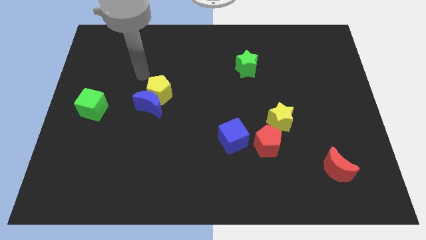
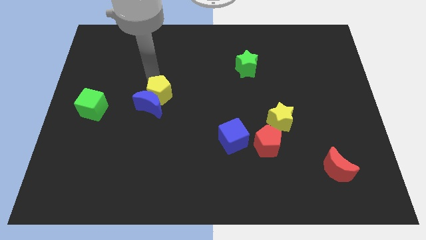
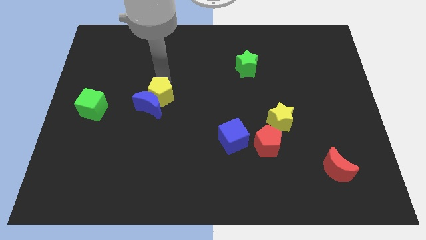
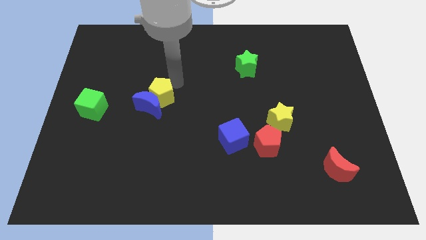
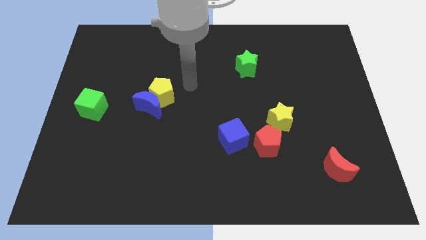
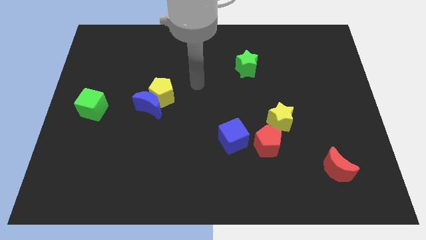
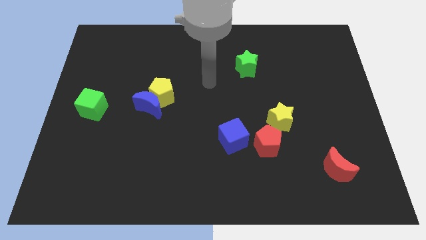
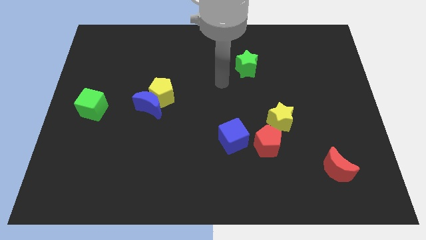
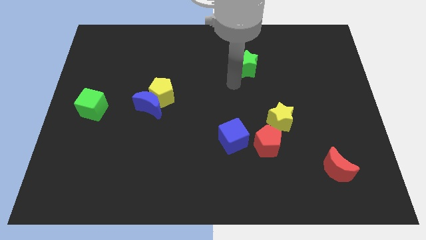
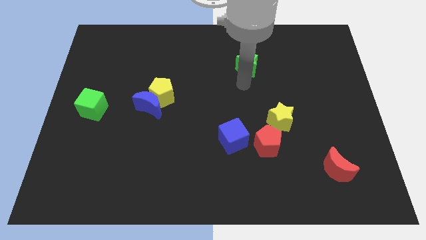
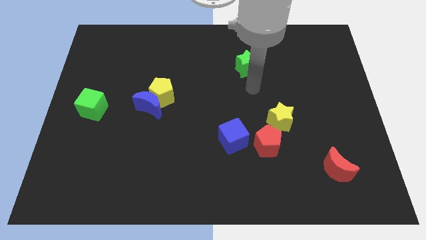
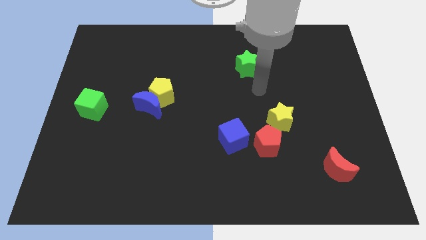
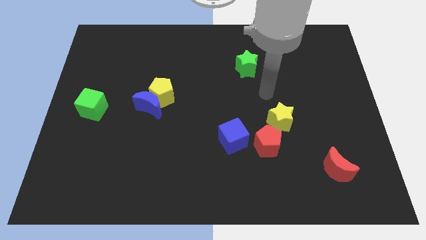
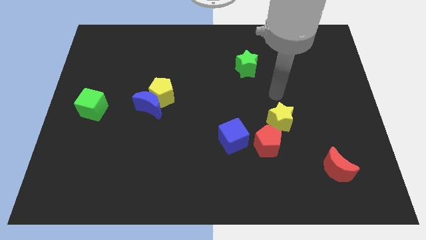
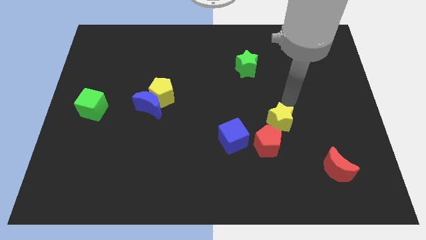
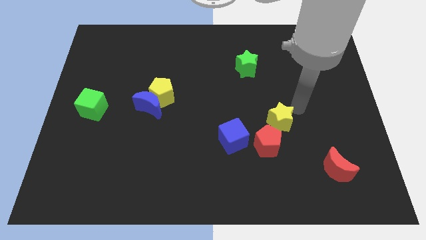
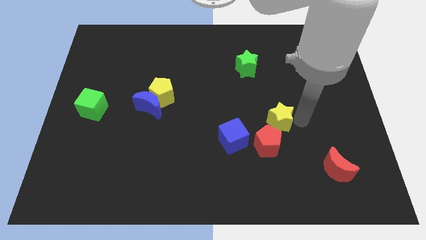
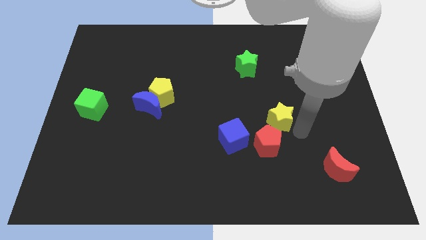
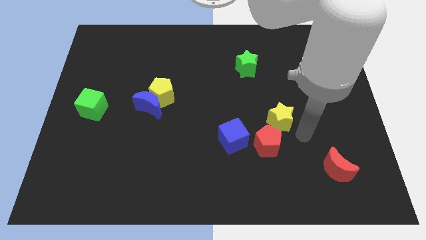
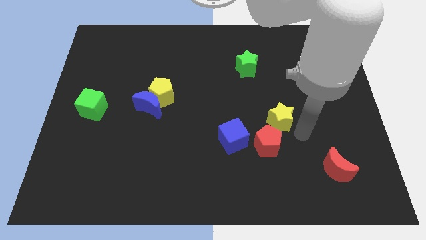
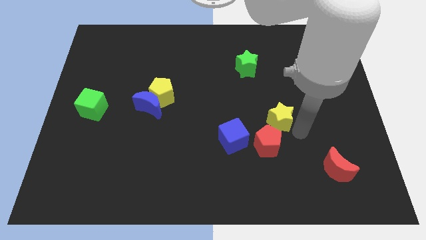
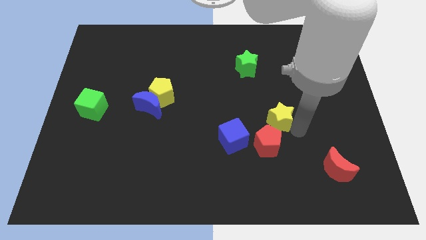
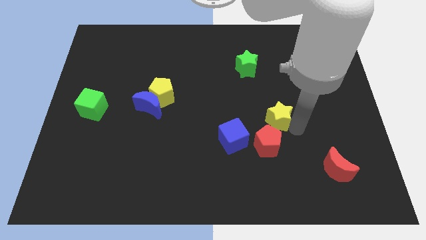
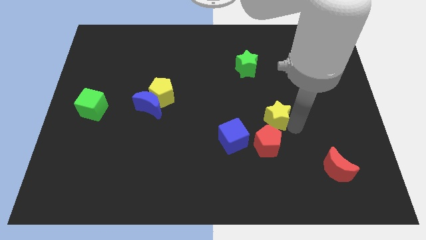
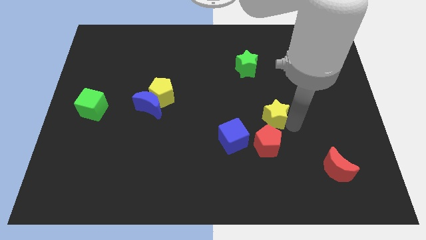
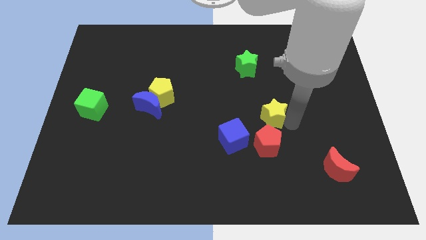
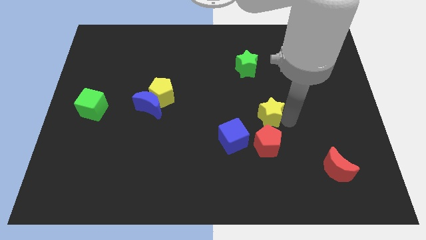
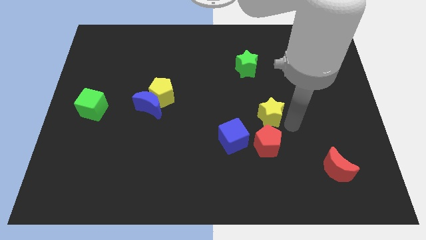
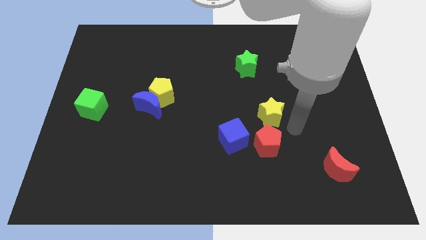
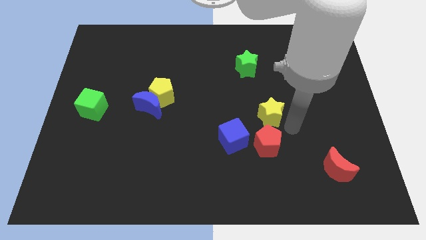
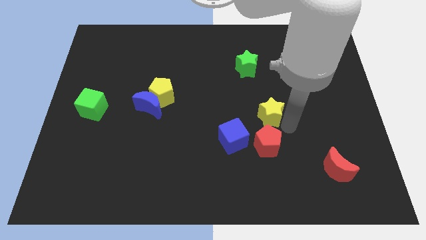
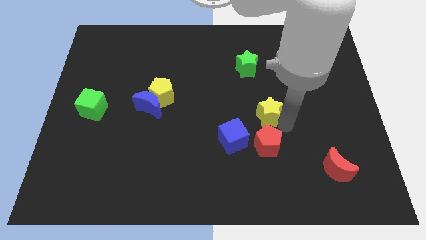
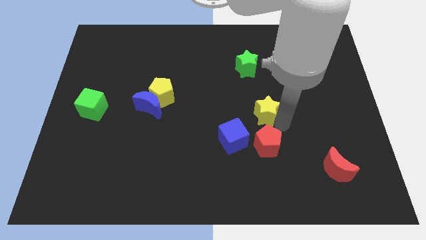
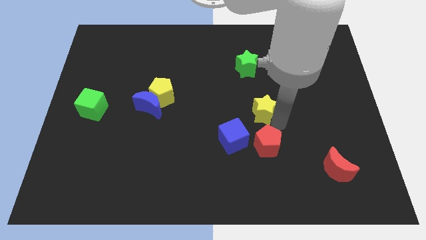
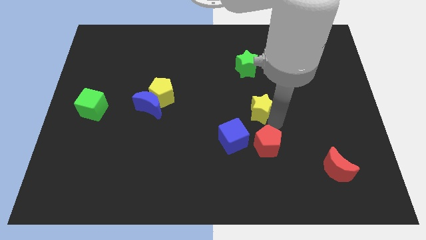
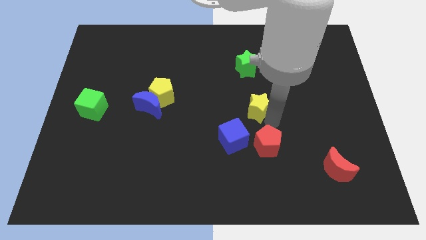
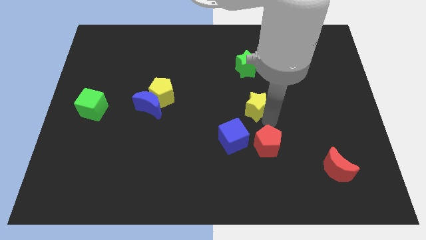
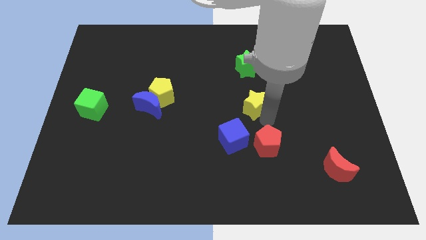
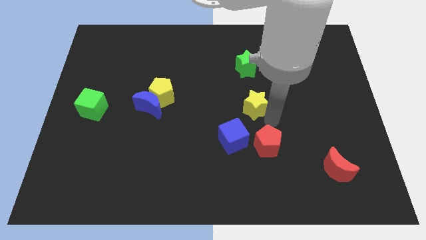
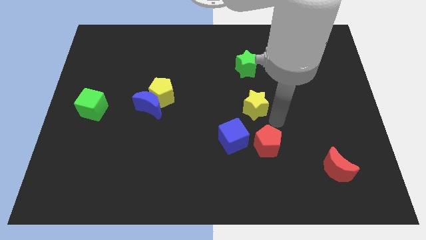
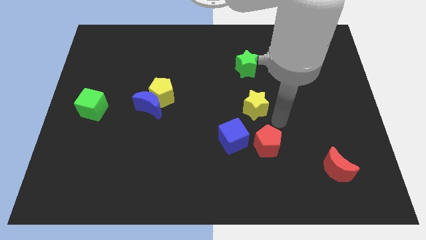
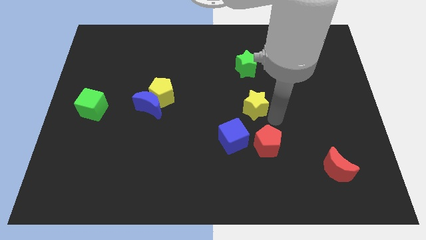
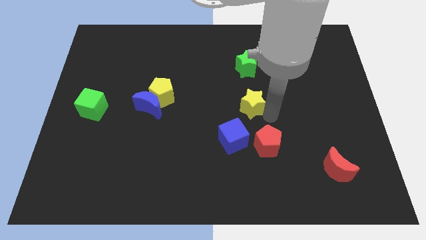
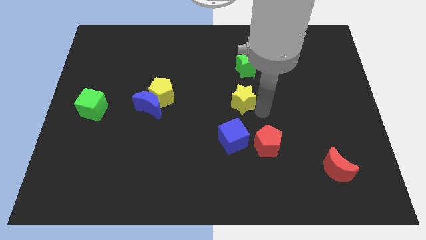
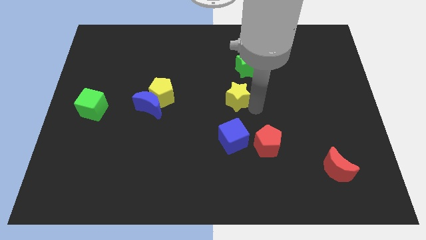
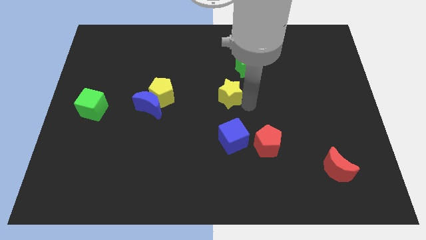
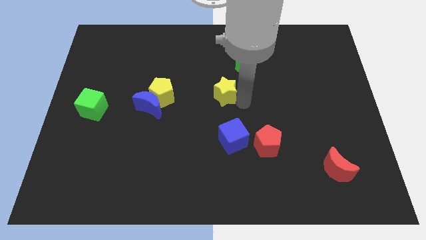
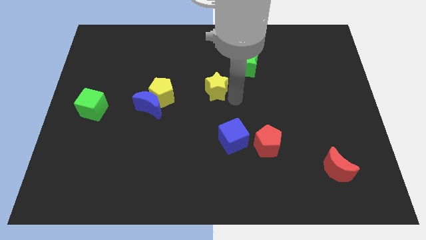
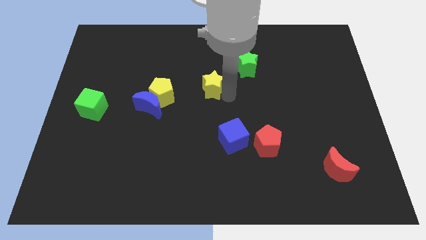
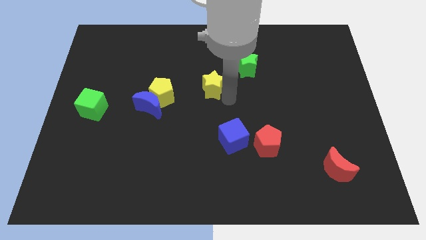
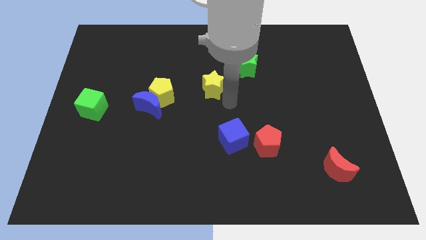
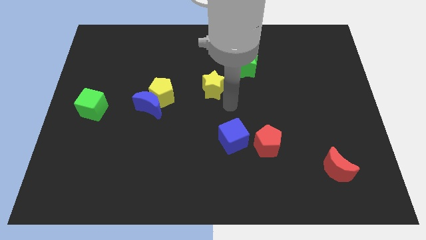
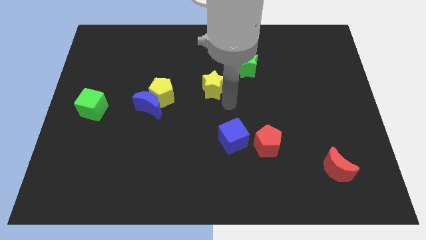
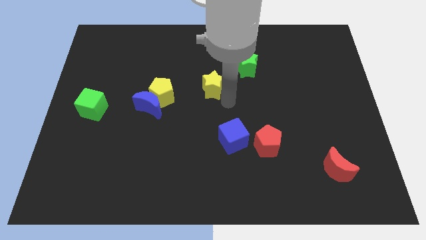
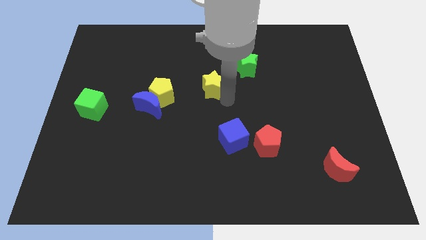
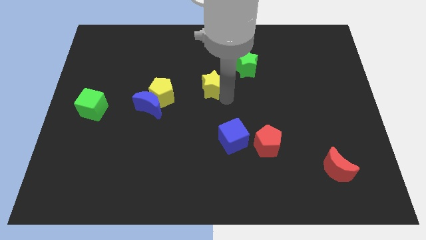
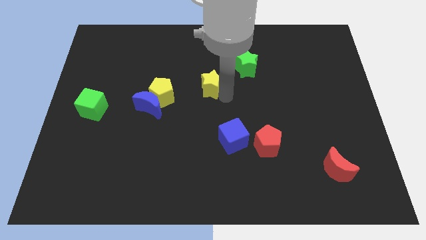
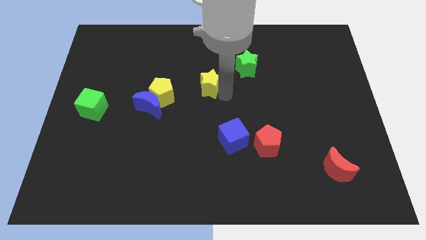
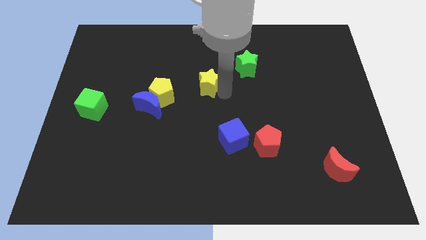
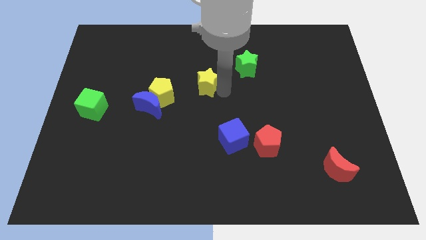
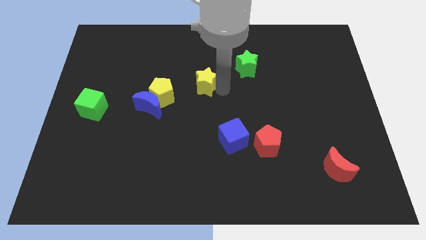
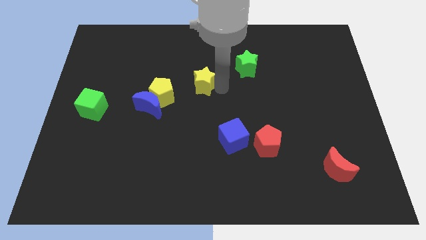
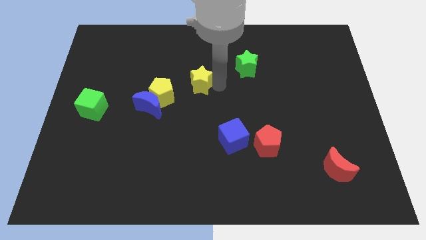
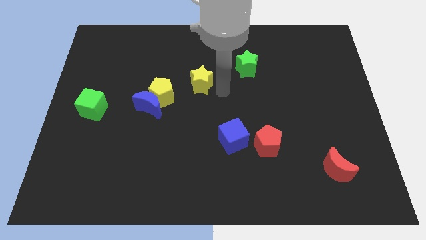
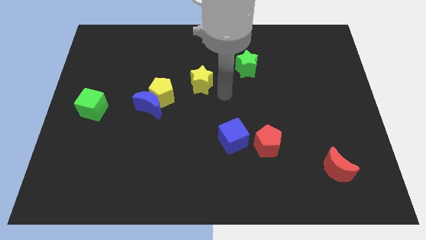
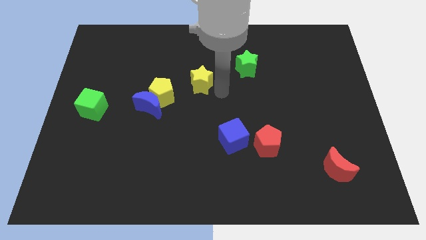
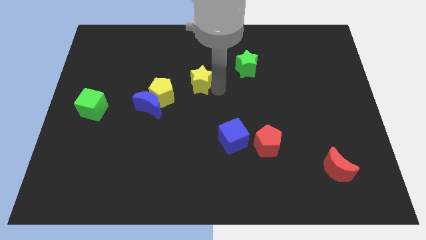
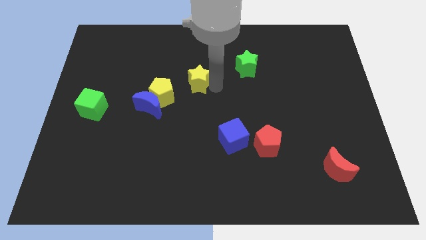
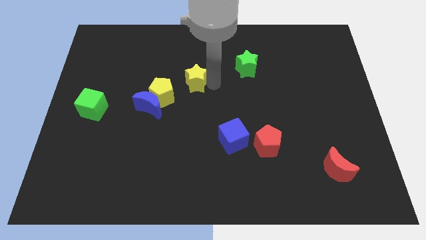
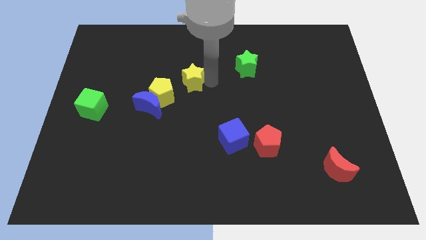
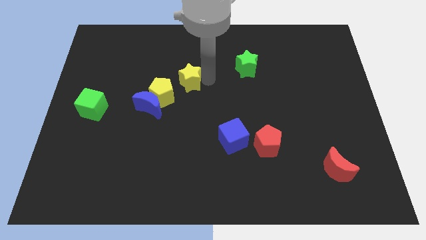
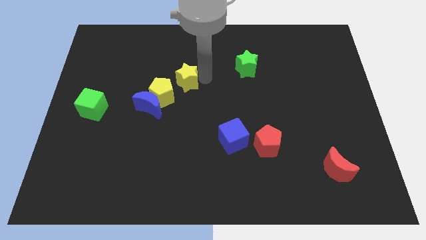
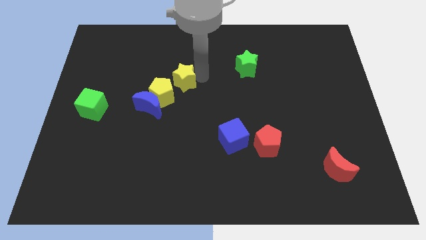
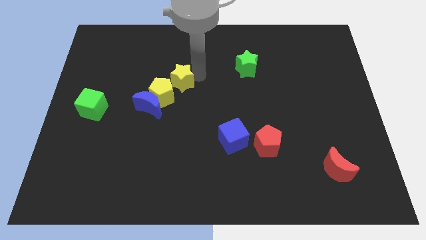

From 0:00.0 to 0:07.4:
put the yellow star above the yellow pentagon

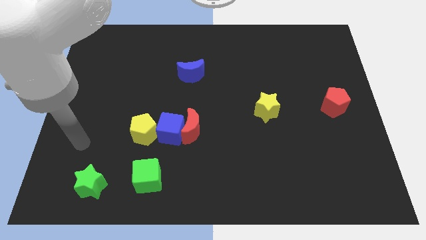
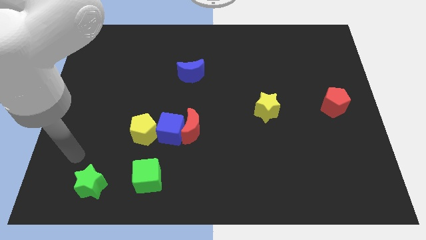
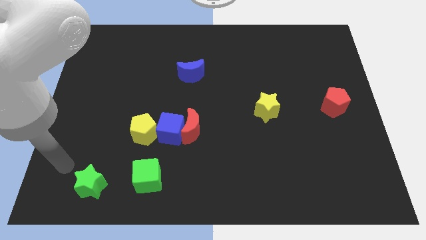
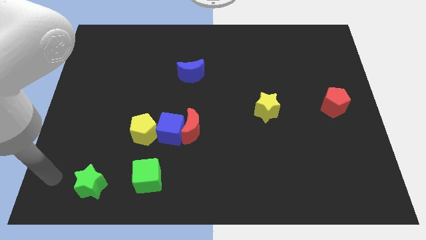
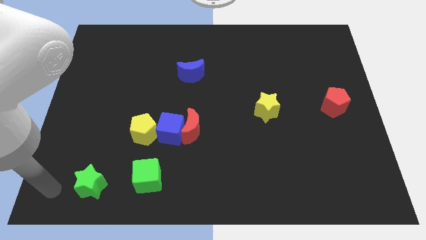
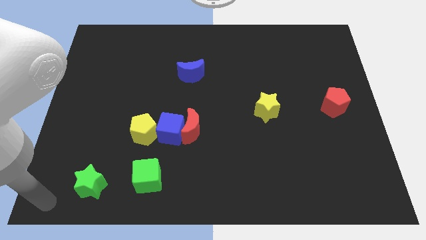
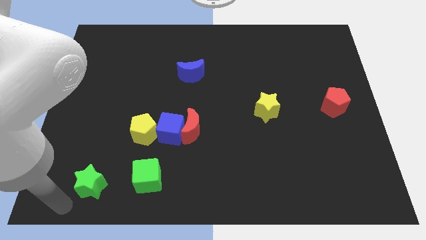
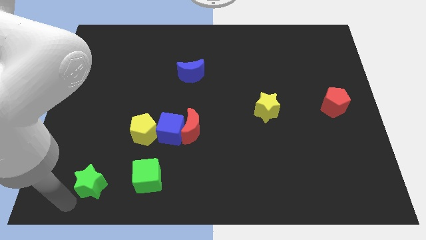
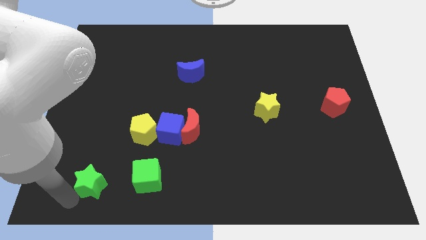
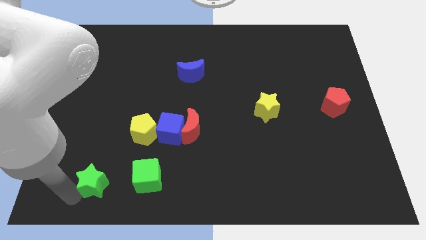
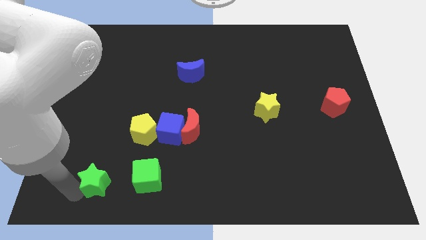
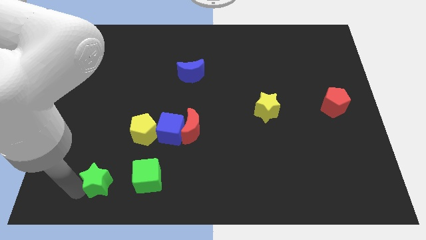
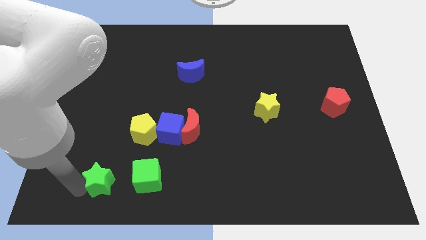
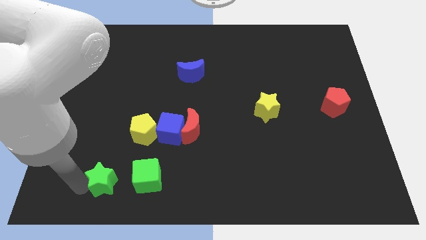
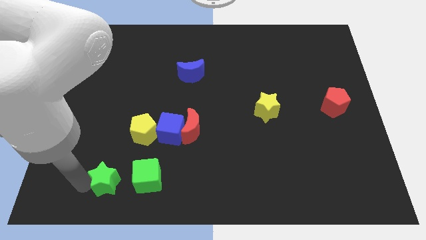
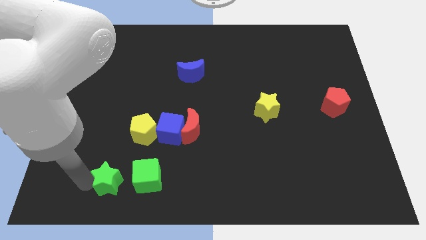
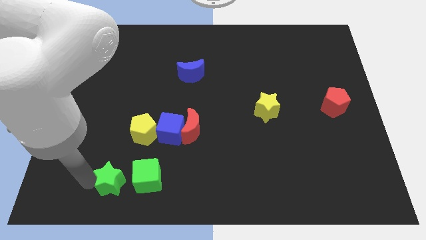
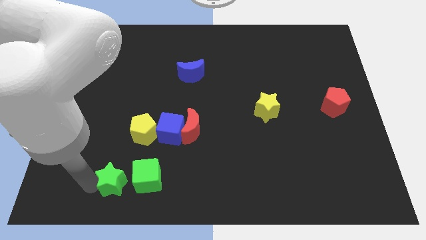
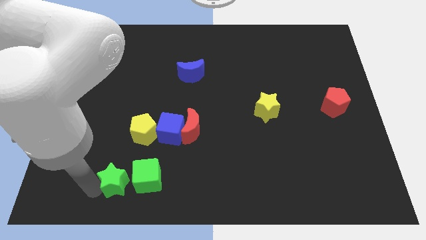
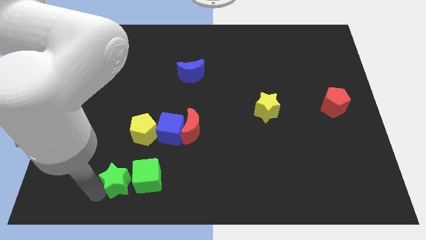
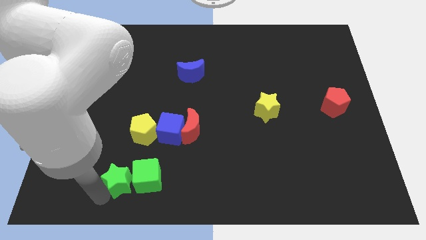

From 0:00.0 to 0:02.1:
put the green star to the top left side of the green cube
